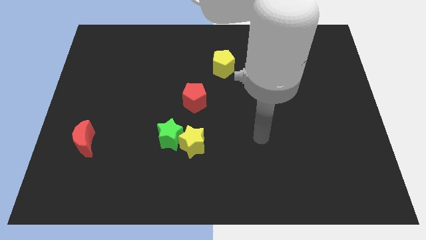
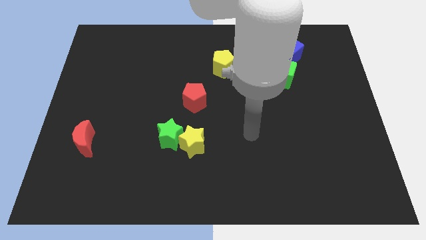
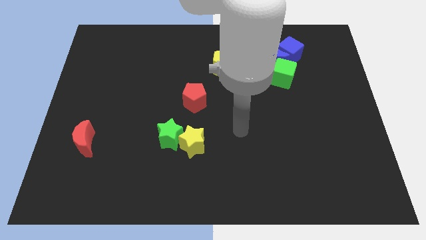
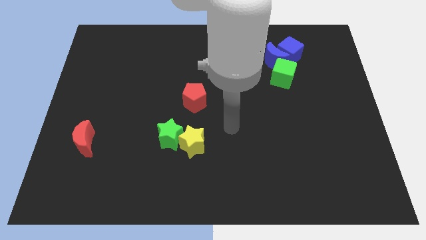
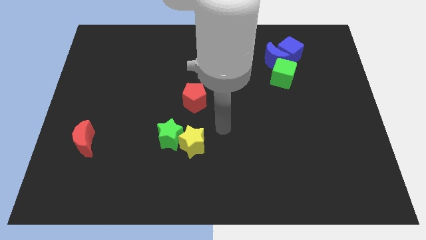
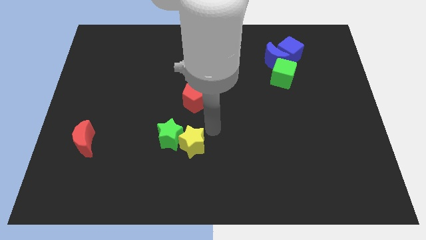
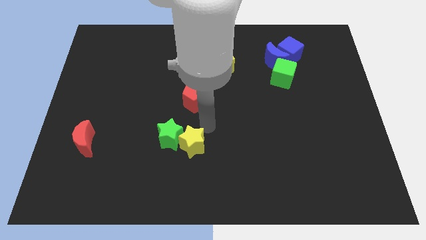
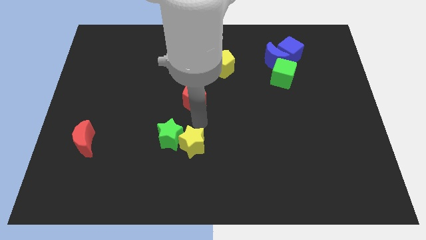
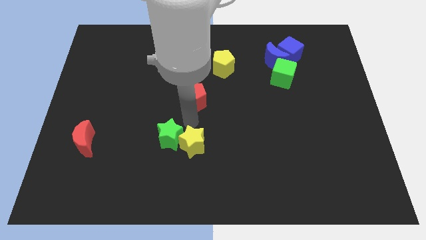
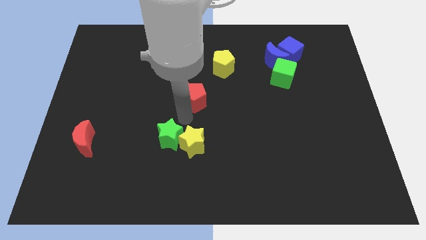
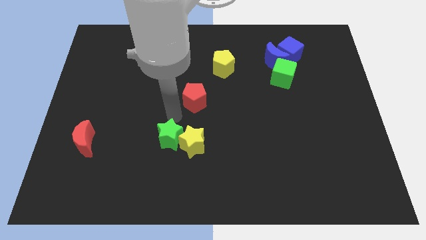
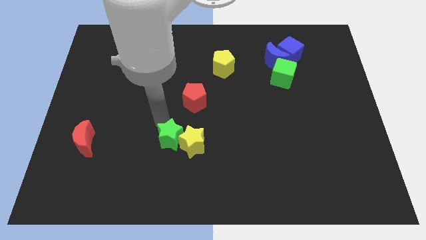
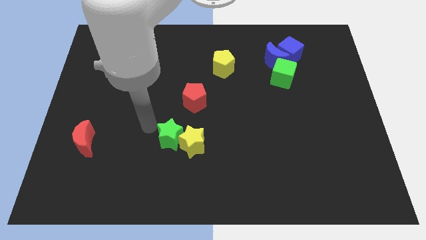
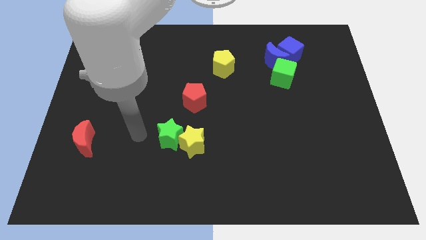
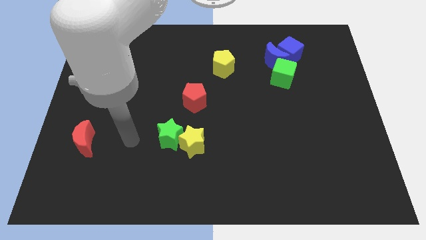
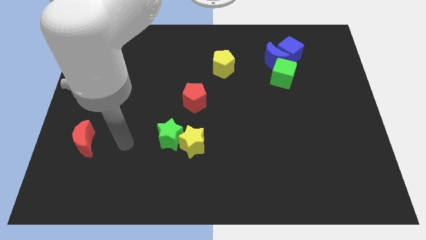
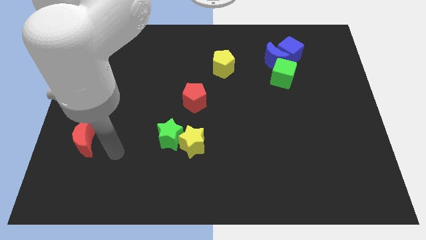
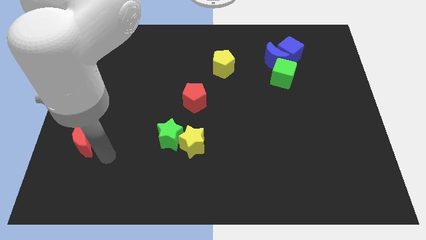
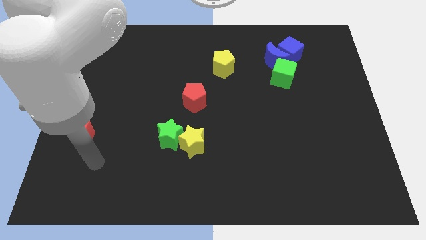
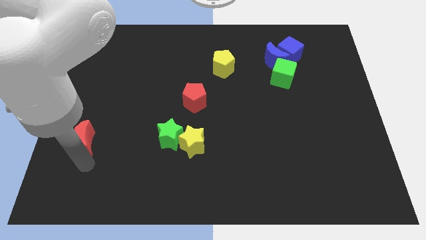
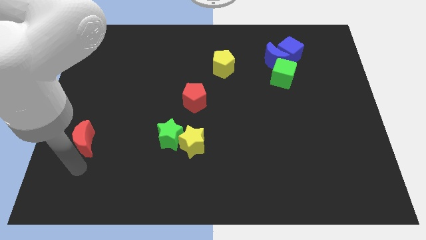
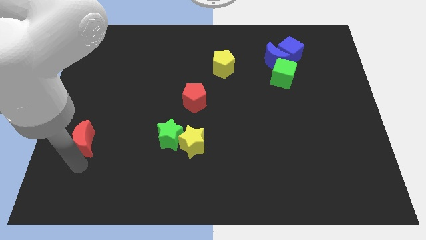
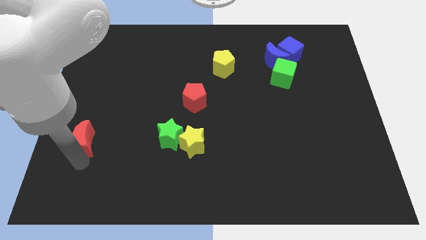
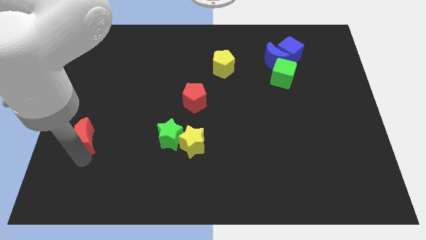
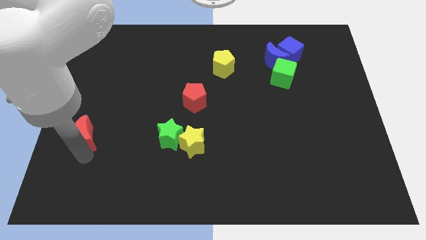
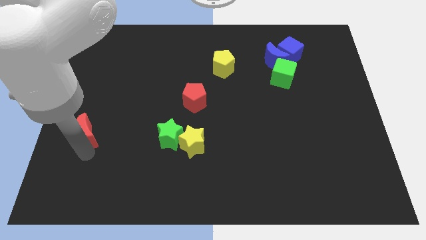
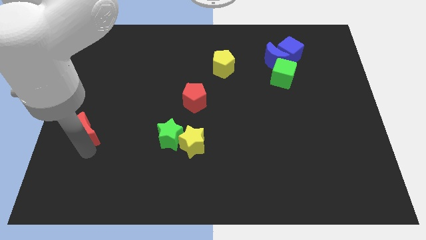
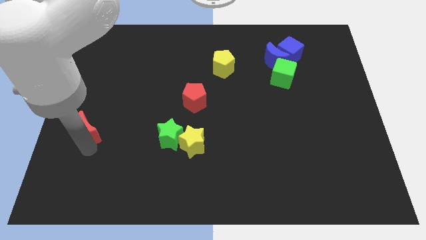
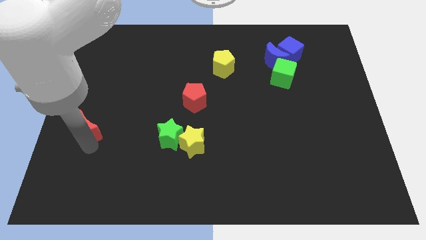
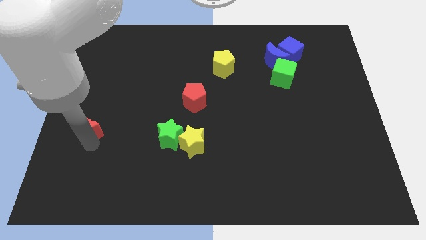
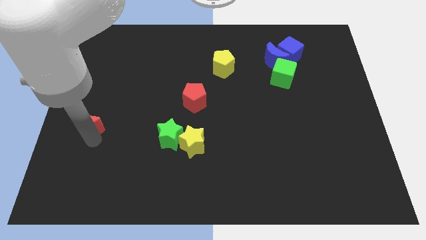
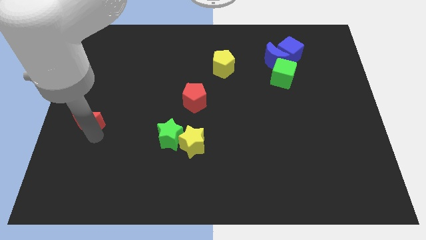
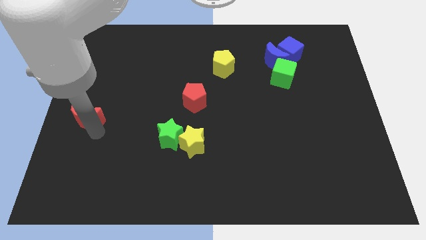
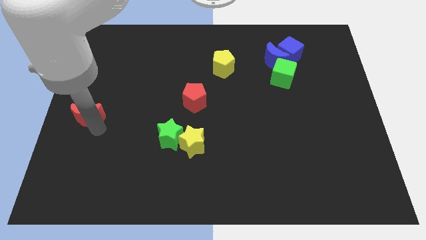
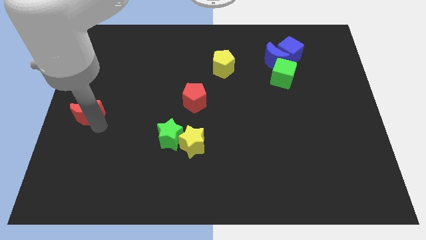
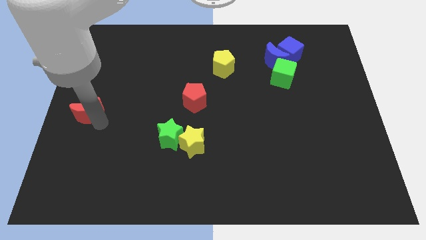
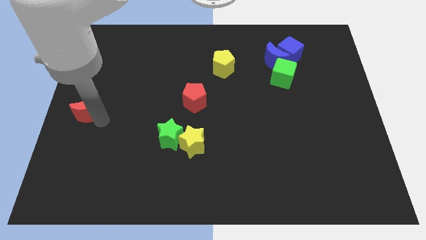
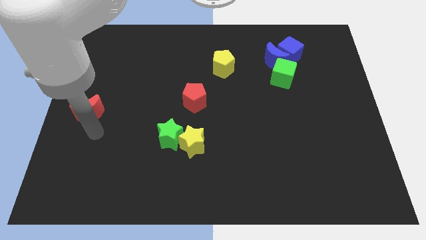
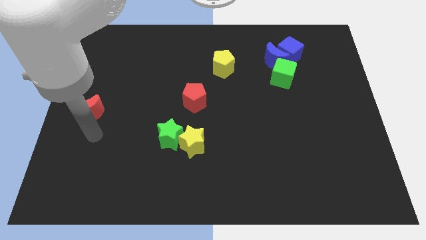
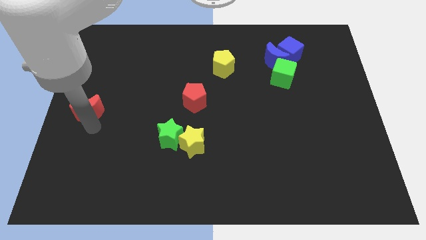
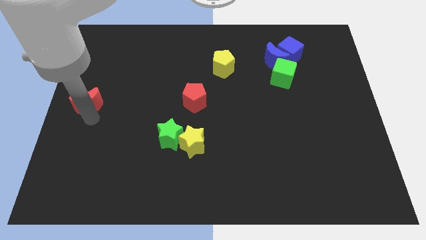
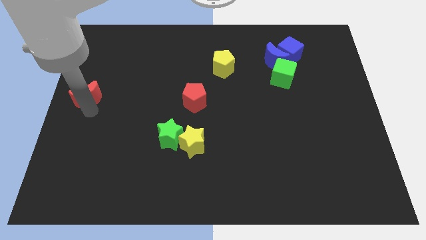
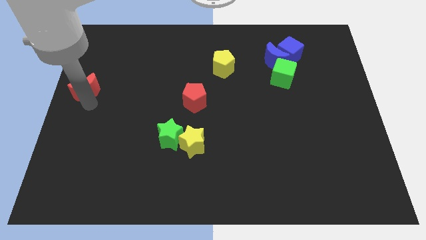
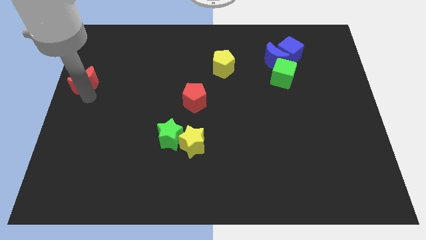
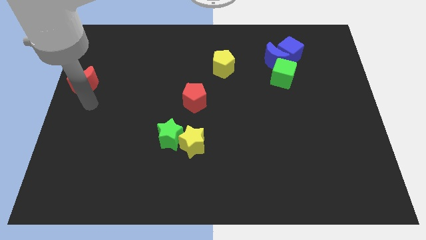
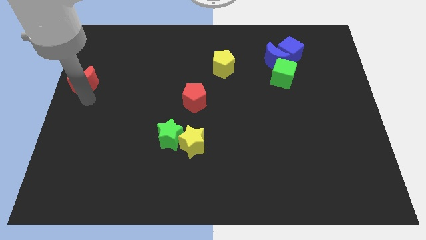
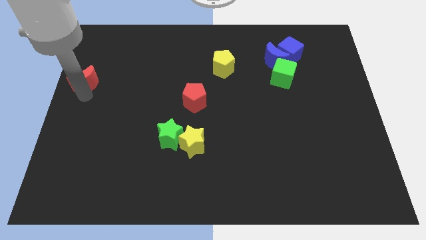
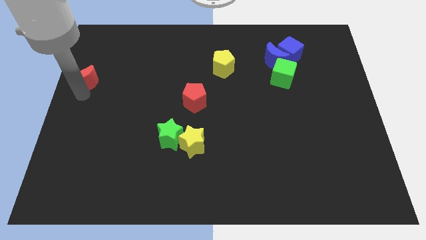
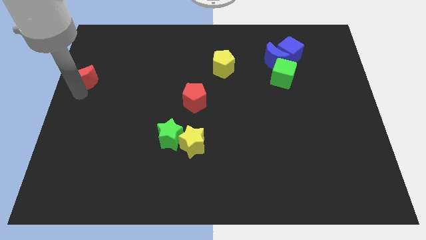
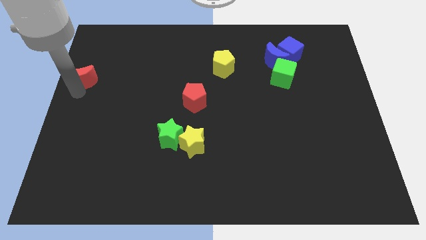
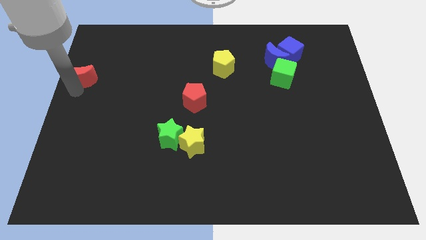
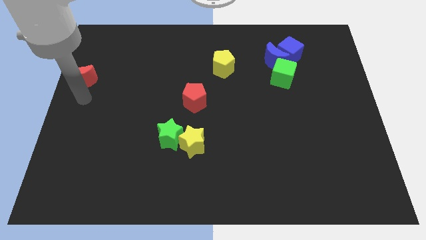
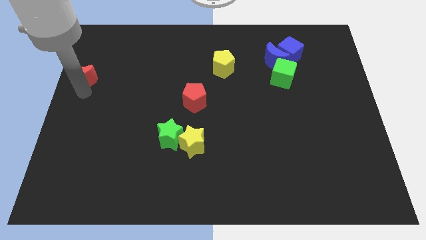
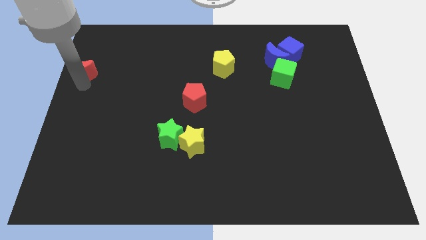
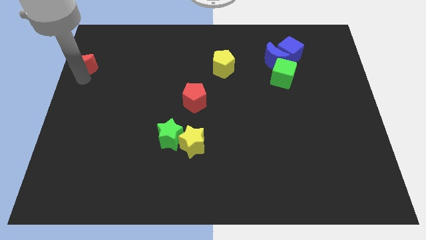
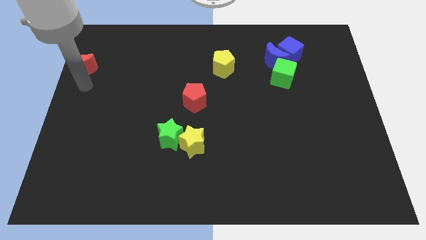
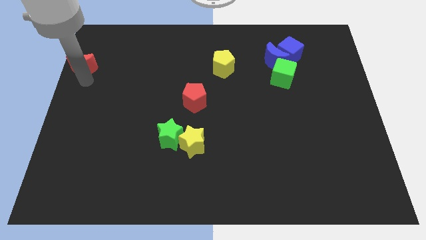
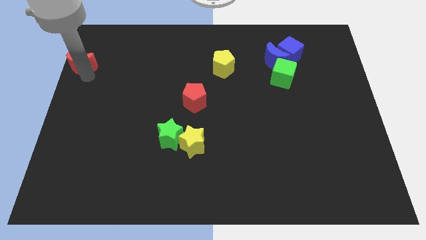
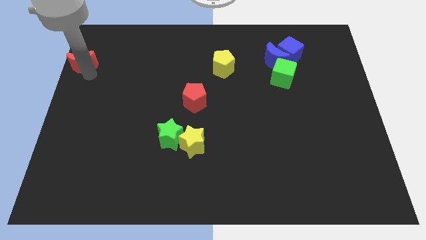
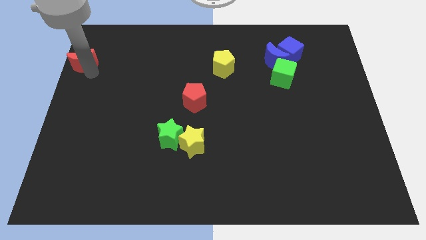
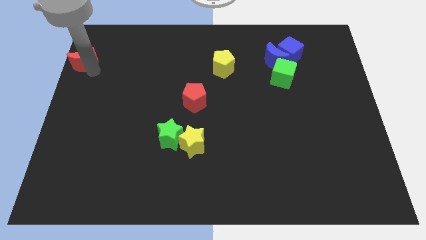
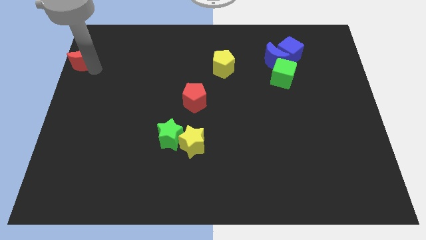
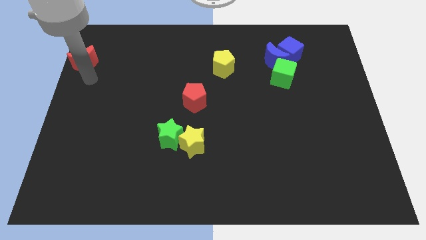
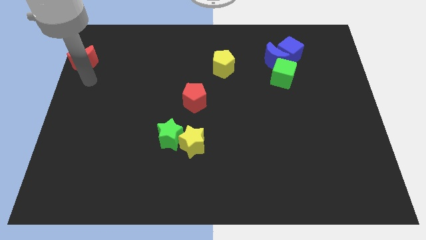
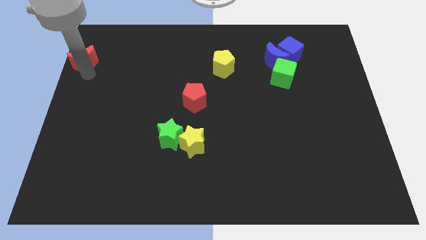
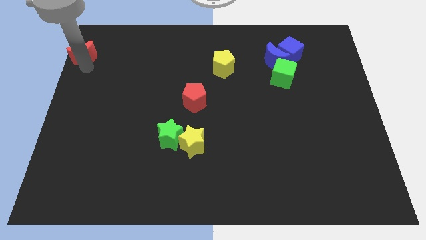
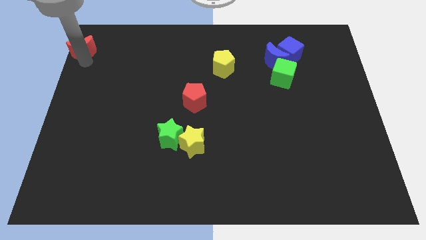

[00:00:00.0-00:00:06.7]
slide the red moon to the top left of the board
